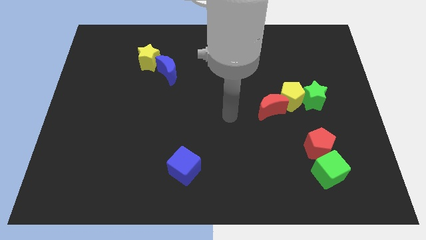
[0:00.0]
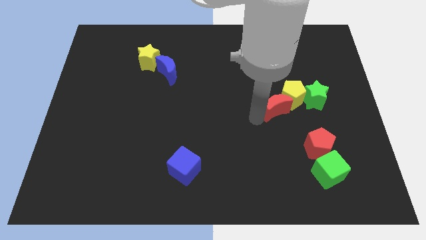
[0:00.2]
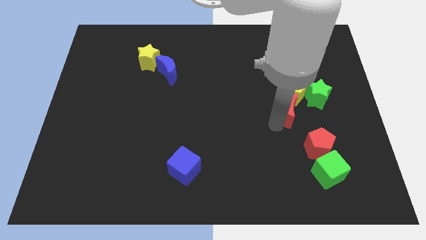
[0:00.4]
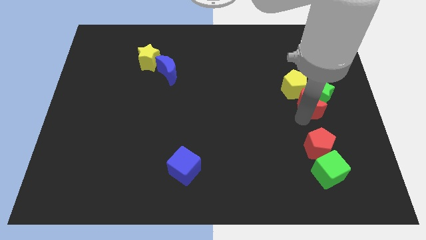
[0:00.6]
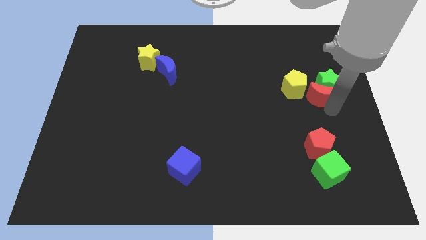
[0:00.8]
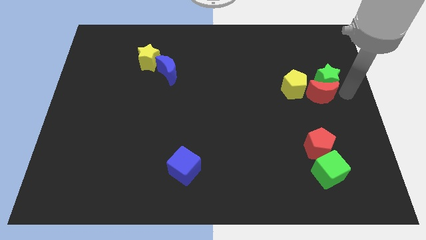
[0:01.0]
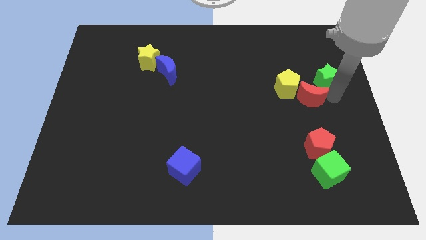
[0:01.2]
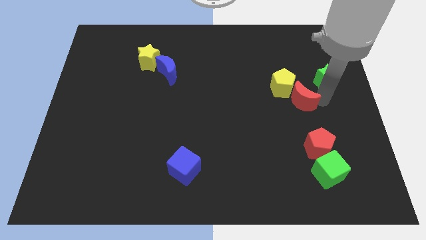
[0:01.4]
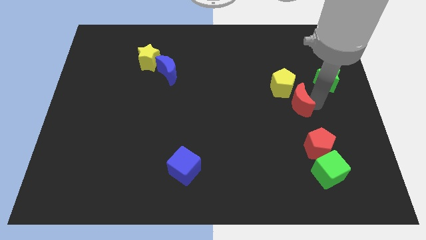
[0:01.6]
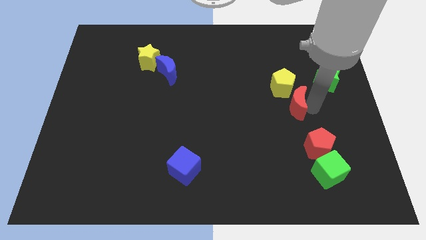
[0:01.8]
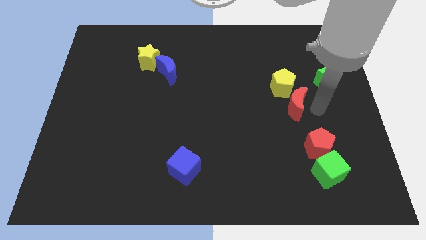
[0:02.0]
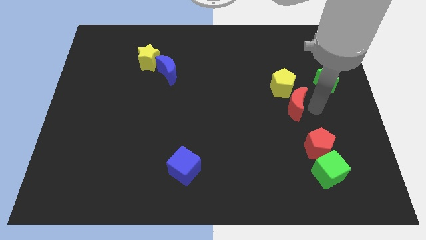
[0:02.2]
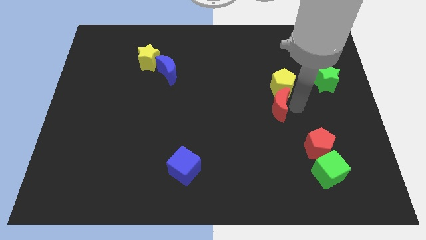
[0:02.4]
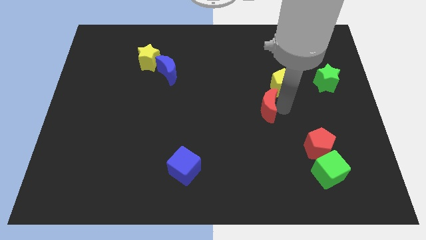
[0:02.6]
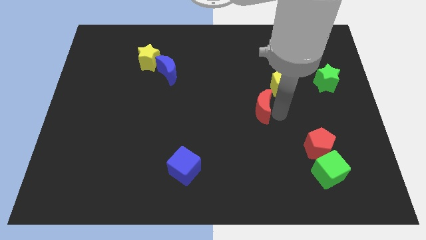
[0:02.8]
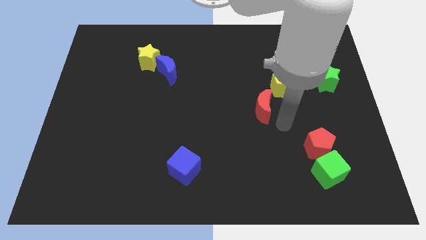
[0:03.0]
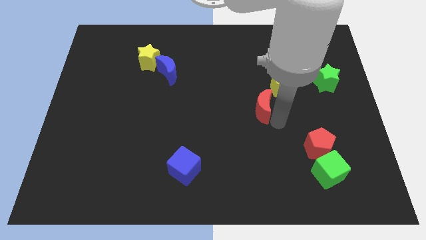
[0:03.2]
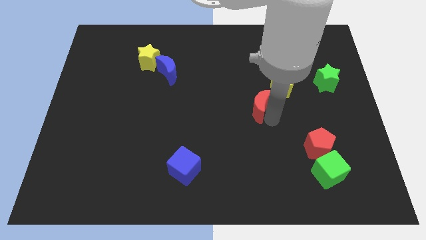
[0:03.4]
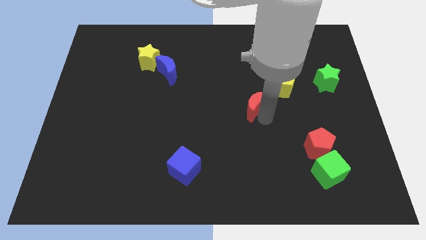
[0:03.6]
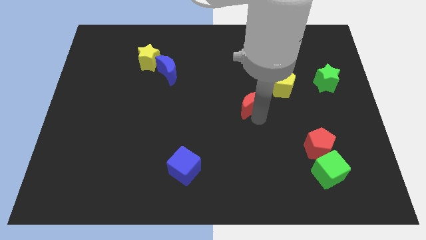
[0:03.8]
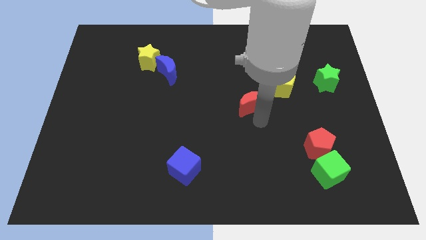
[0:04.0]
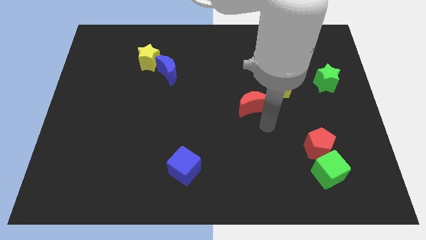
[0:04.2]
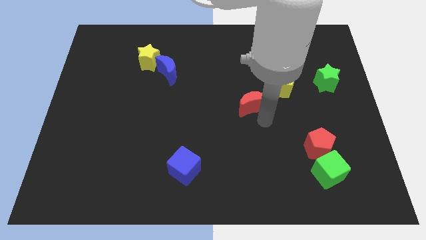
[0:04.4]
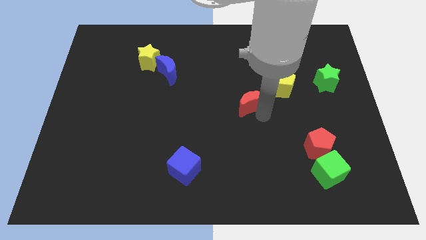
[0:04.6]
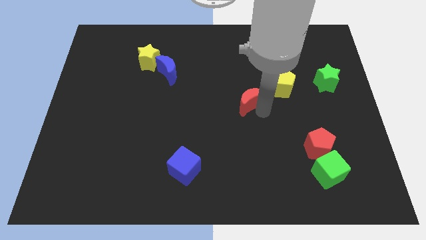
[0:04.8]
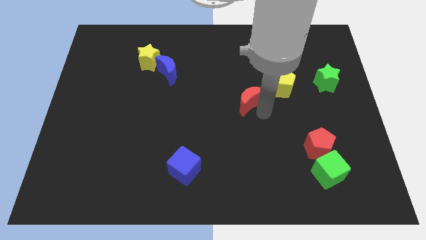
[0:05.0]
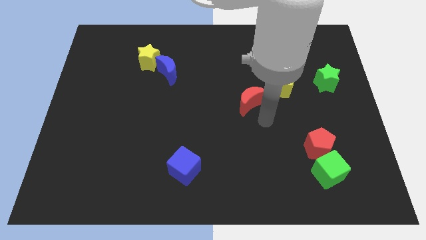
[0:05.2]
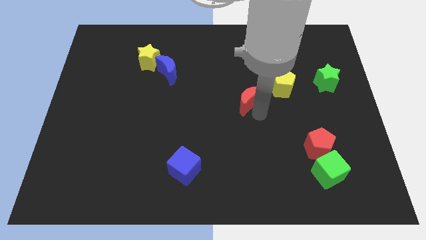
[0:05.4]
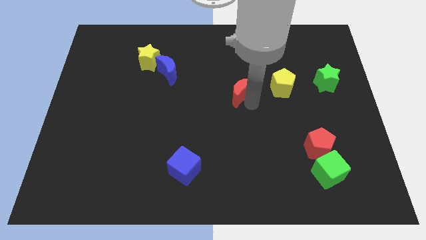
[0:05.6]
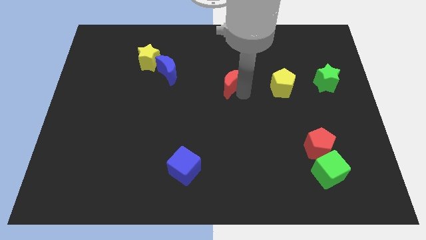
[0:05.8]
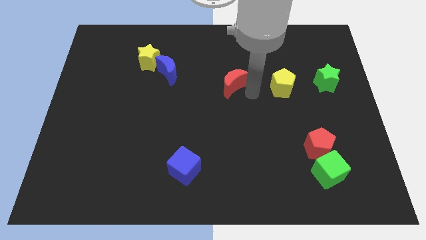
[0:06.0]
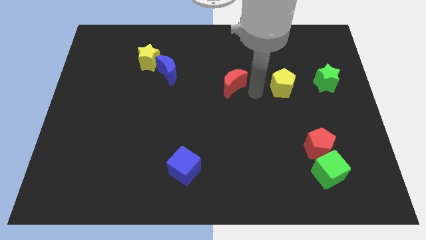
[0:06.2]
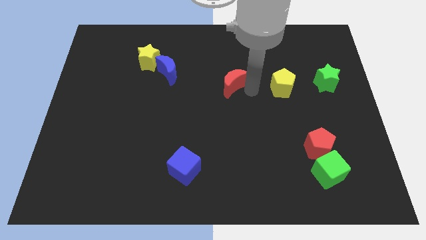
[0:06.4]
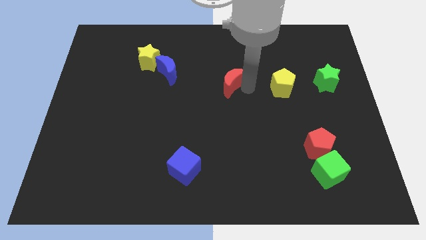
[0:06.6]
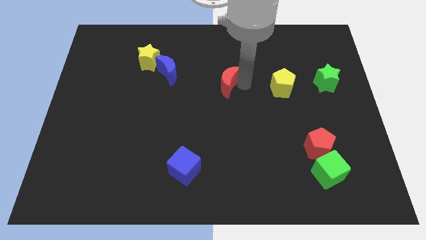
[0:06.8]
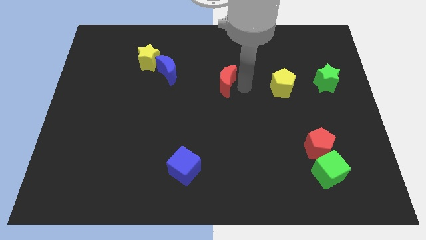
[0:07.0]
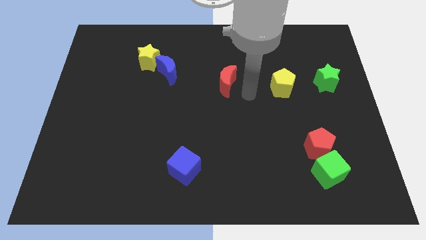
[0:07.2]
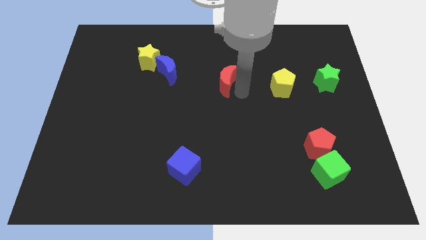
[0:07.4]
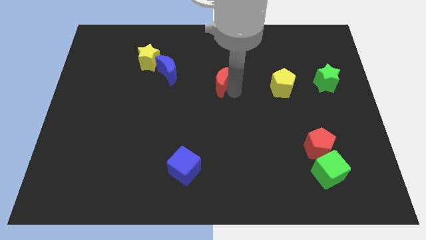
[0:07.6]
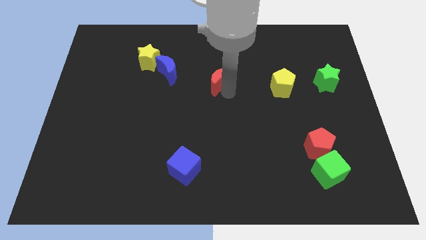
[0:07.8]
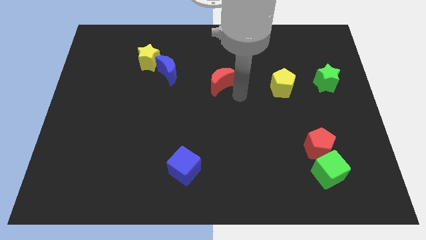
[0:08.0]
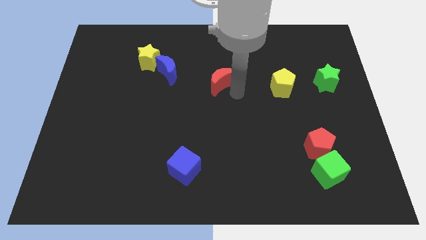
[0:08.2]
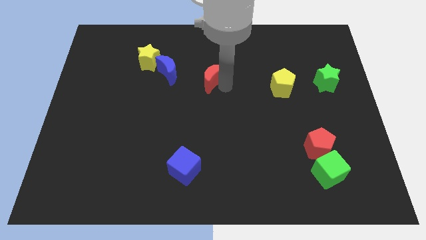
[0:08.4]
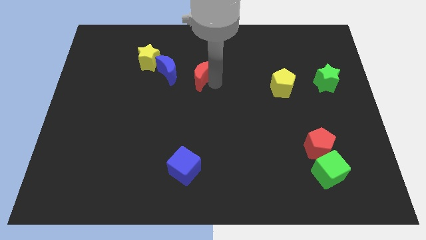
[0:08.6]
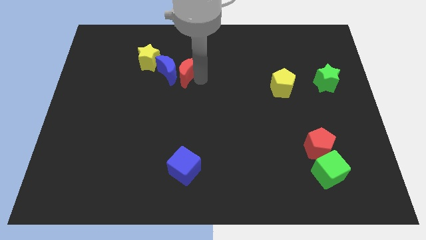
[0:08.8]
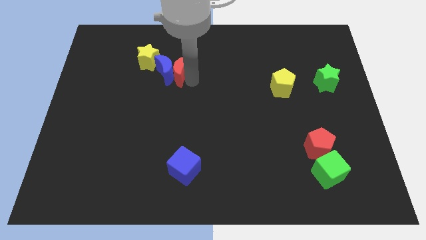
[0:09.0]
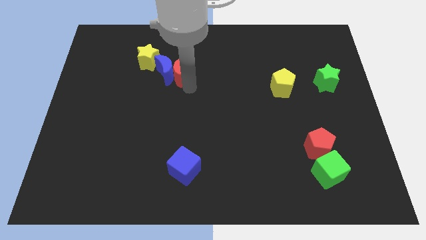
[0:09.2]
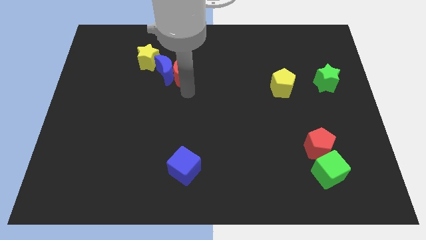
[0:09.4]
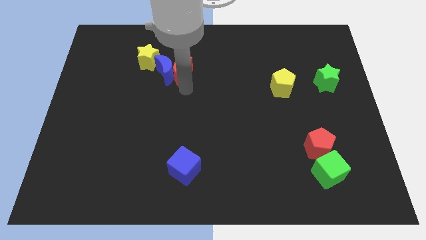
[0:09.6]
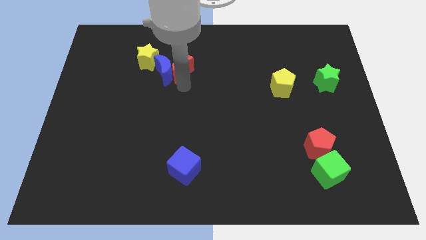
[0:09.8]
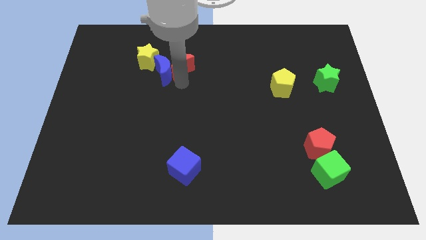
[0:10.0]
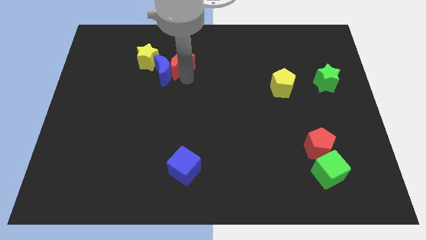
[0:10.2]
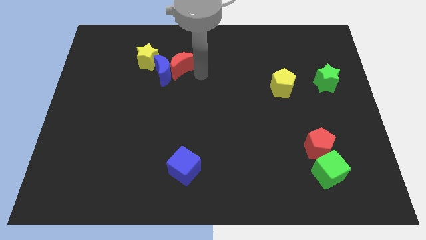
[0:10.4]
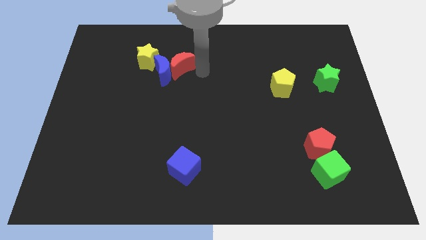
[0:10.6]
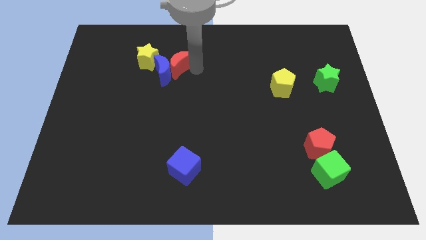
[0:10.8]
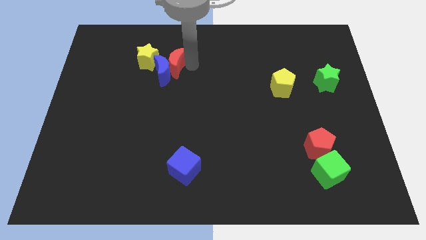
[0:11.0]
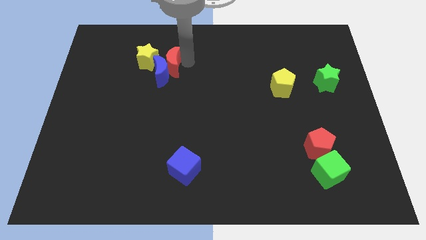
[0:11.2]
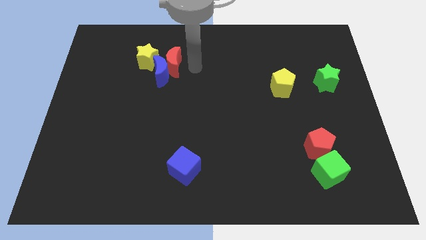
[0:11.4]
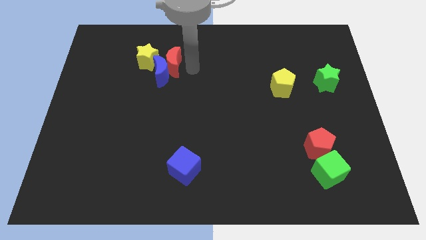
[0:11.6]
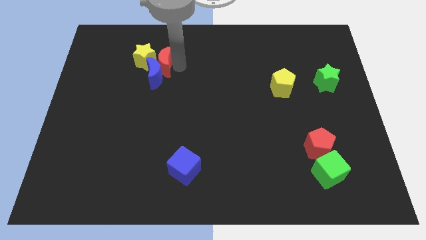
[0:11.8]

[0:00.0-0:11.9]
move the red moon to the yellow star

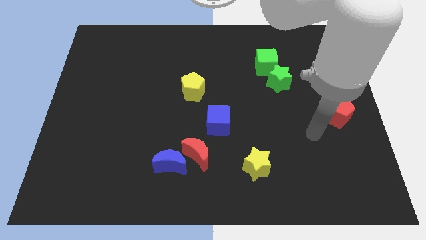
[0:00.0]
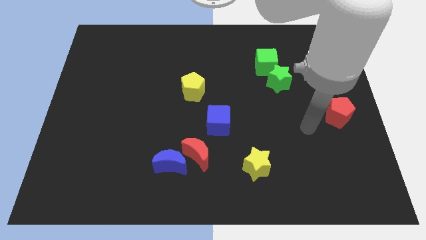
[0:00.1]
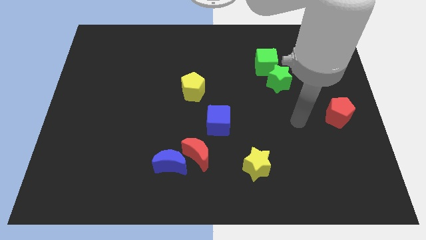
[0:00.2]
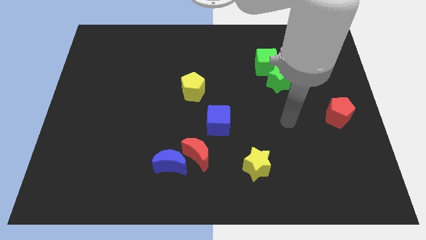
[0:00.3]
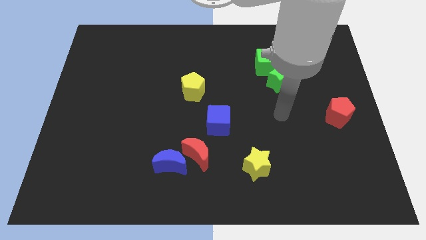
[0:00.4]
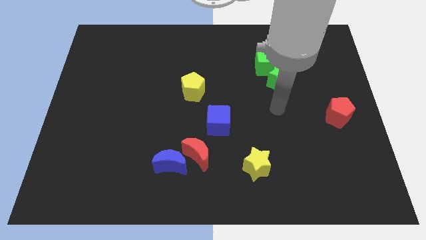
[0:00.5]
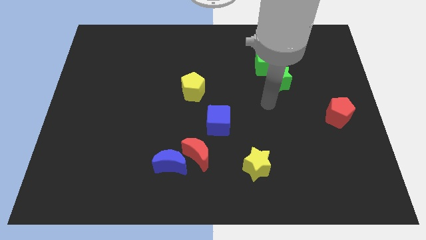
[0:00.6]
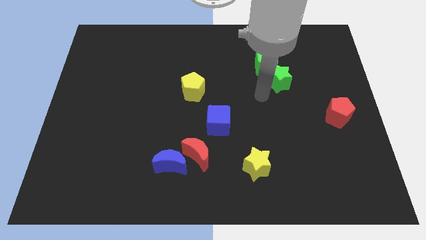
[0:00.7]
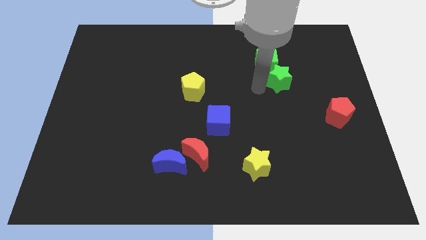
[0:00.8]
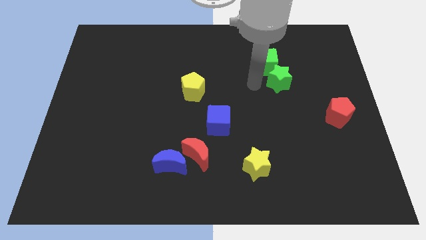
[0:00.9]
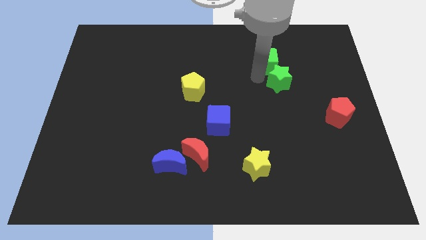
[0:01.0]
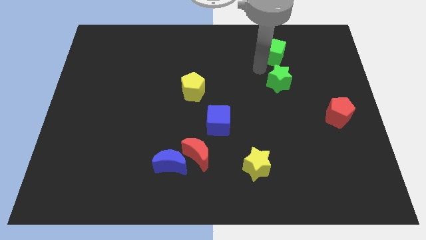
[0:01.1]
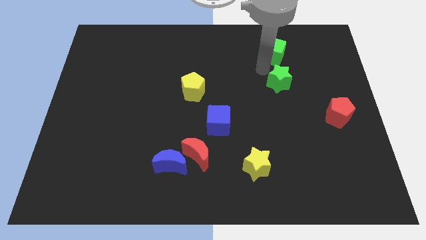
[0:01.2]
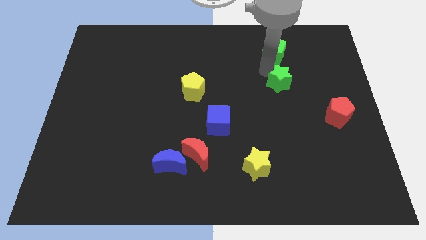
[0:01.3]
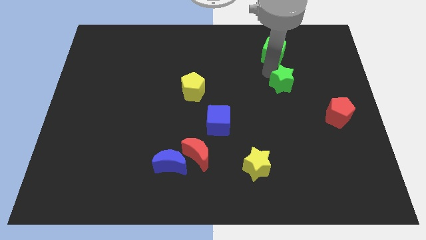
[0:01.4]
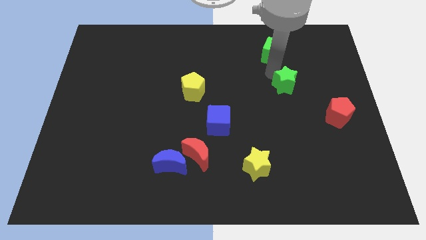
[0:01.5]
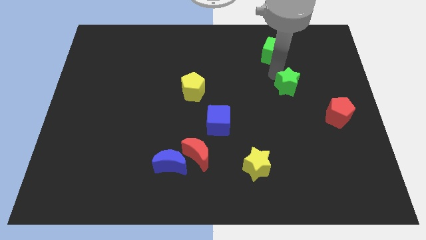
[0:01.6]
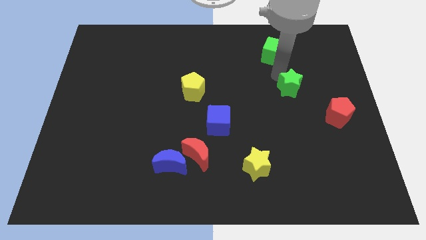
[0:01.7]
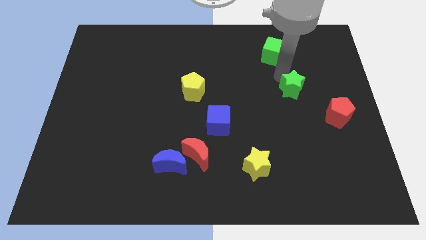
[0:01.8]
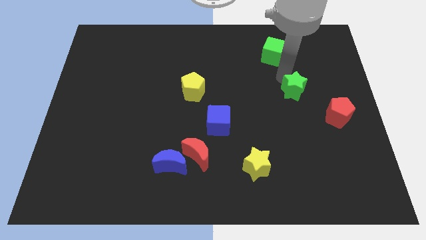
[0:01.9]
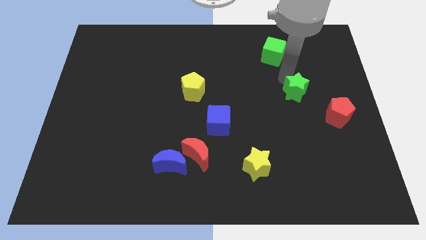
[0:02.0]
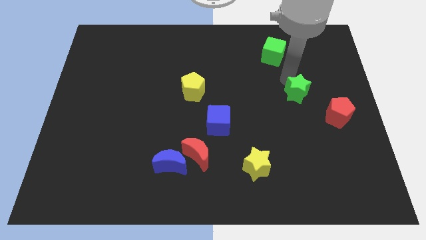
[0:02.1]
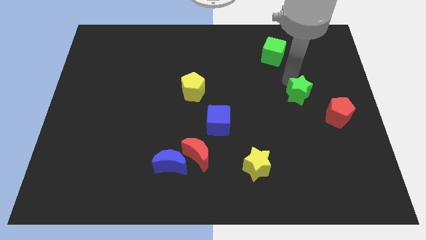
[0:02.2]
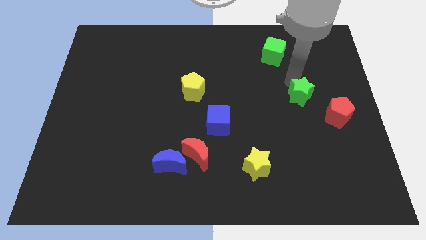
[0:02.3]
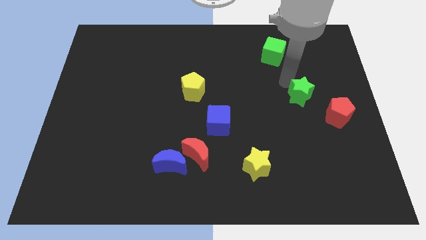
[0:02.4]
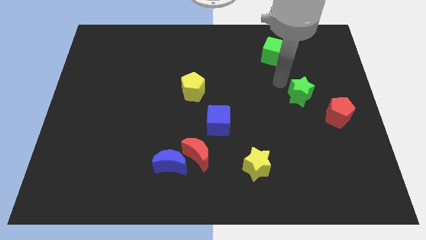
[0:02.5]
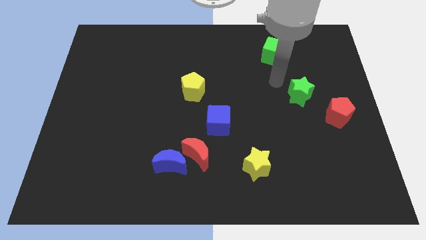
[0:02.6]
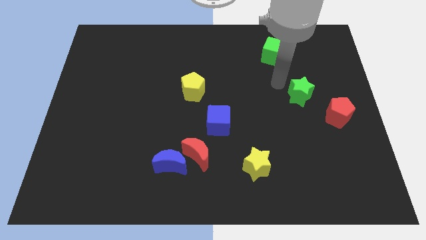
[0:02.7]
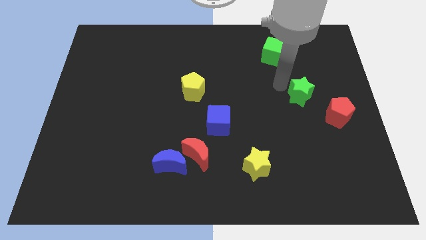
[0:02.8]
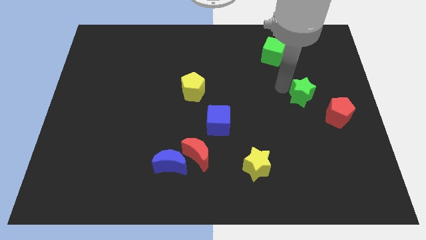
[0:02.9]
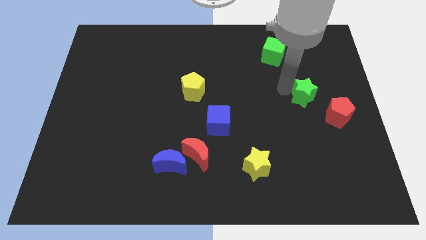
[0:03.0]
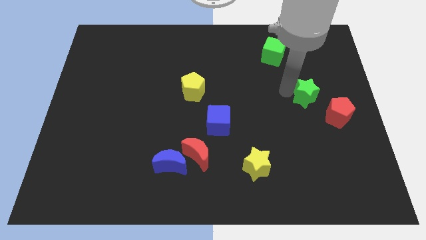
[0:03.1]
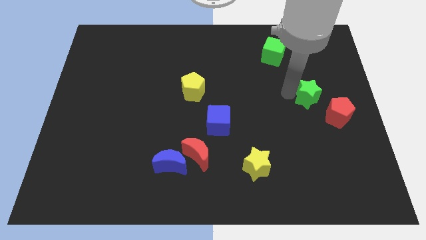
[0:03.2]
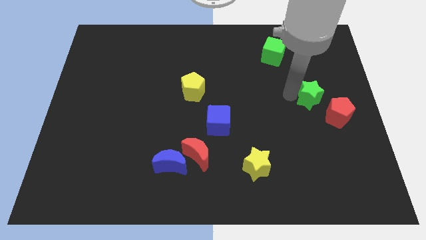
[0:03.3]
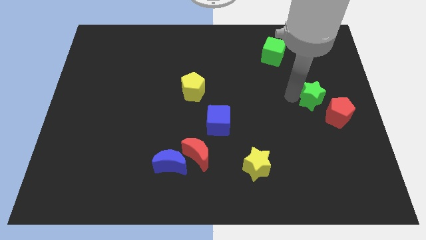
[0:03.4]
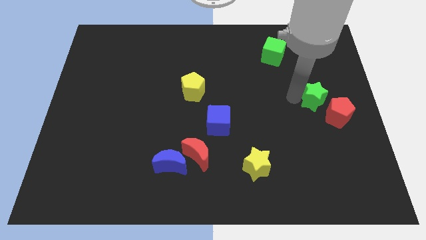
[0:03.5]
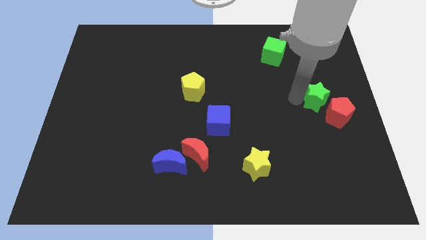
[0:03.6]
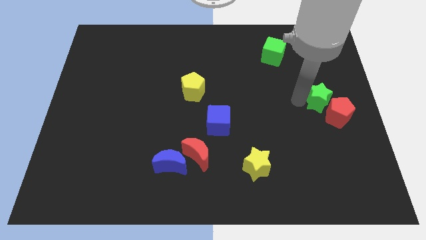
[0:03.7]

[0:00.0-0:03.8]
put the green star close to the red pentagon
